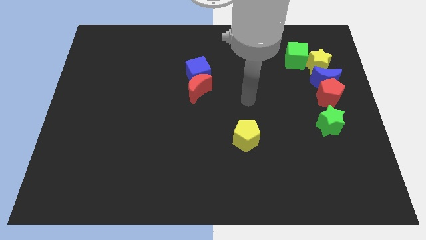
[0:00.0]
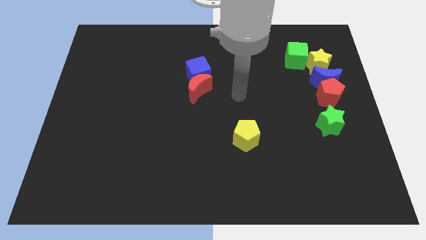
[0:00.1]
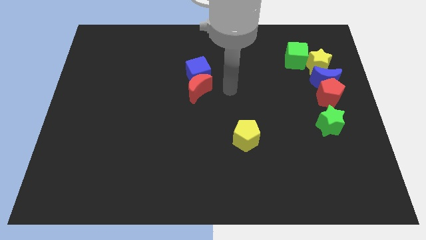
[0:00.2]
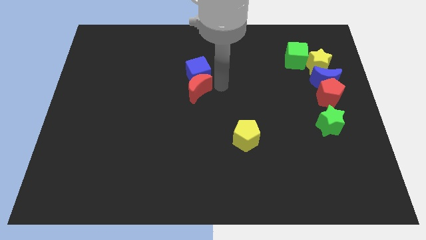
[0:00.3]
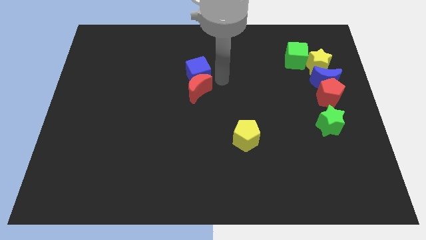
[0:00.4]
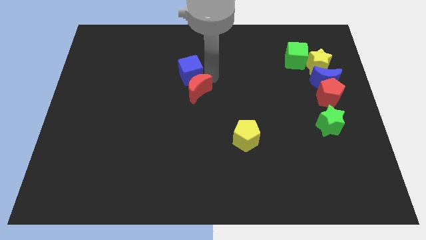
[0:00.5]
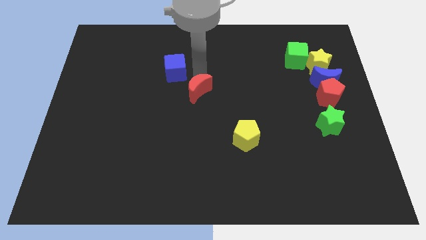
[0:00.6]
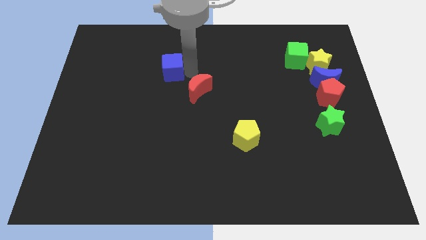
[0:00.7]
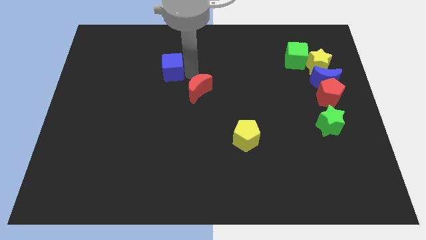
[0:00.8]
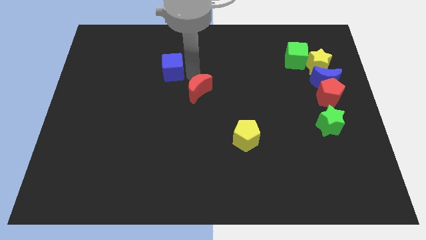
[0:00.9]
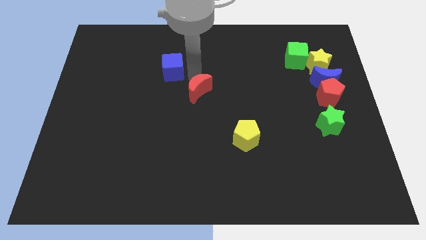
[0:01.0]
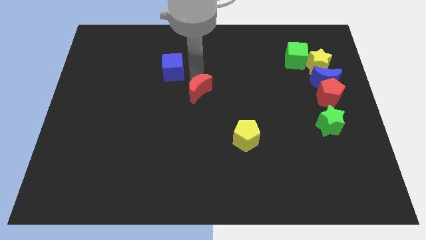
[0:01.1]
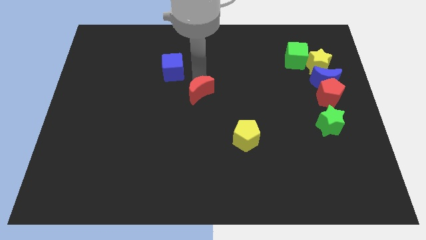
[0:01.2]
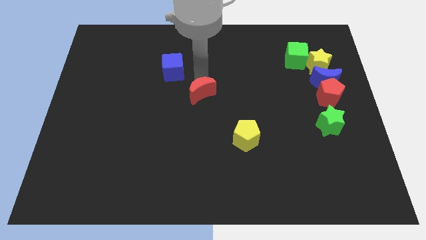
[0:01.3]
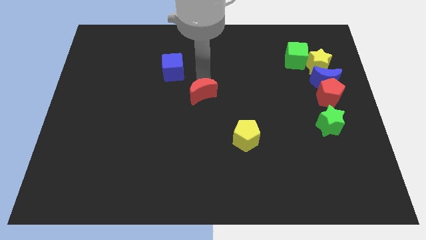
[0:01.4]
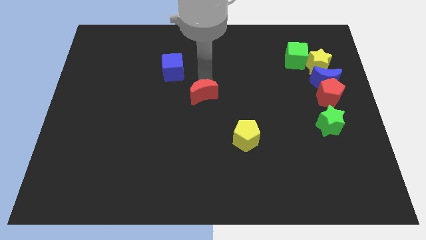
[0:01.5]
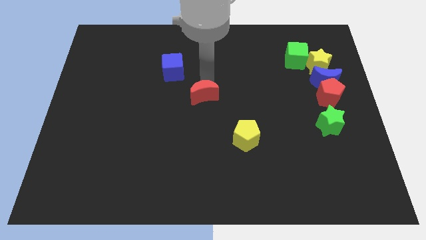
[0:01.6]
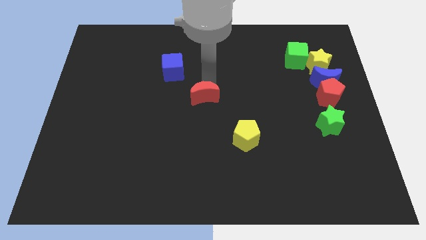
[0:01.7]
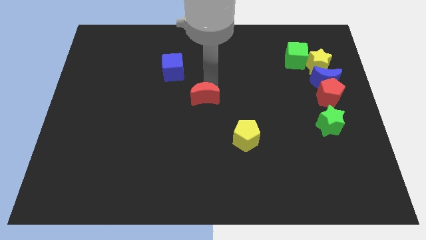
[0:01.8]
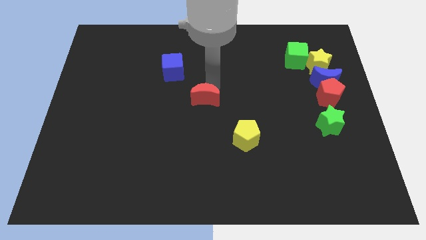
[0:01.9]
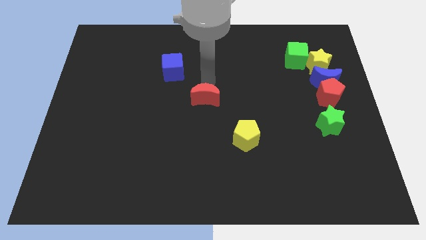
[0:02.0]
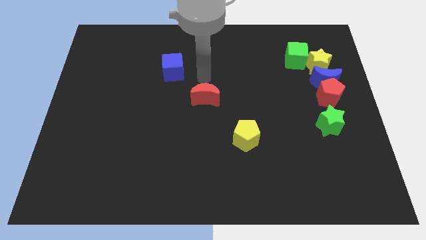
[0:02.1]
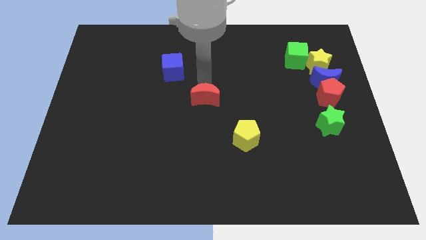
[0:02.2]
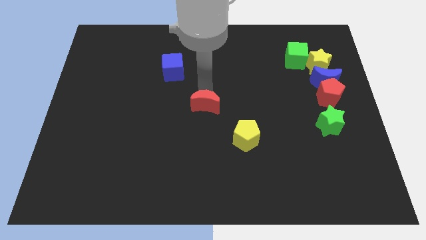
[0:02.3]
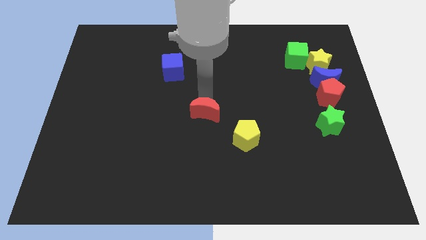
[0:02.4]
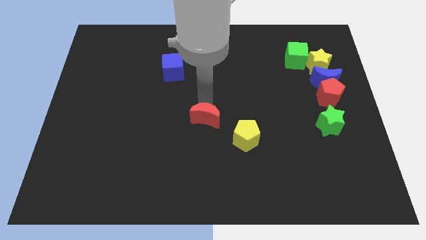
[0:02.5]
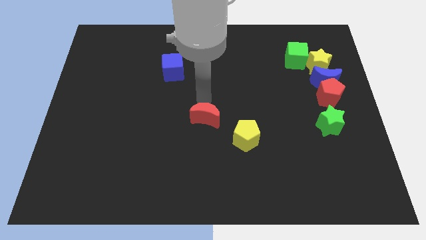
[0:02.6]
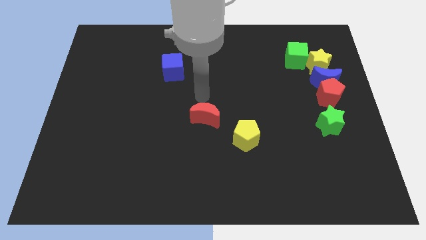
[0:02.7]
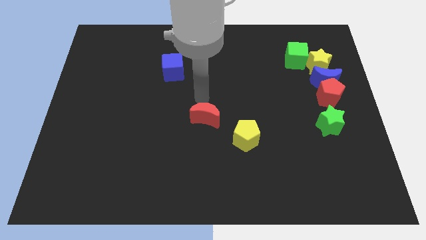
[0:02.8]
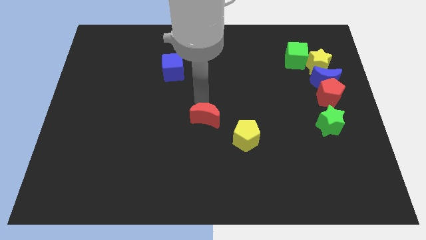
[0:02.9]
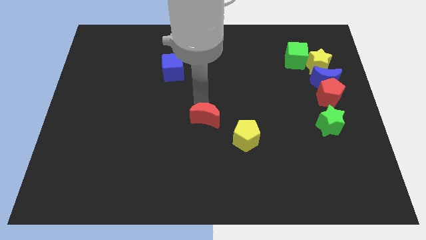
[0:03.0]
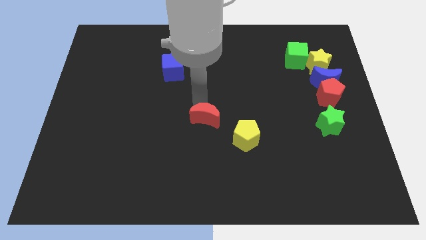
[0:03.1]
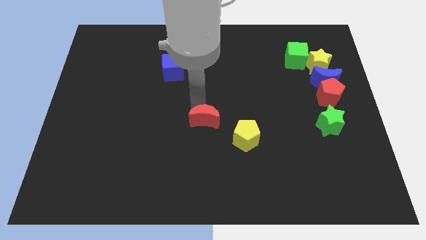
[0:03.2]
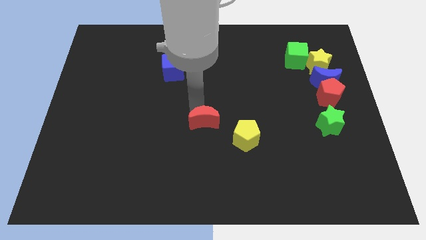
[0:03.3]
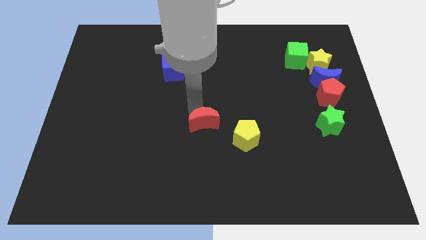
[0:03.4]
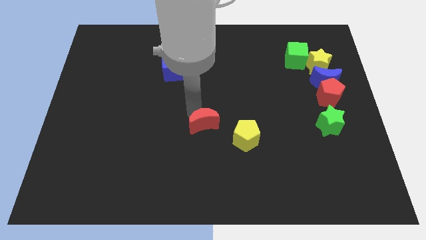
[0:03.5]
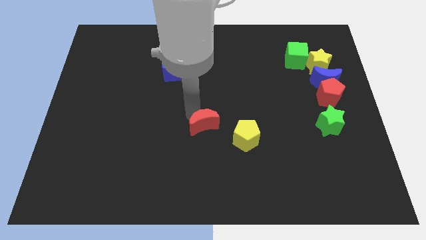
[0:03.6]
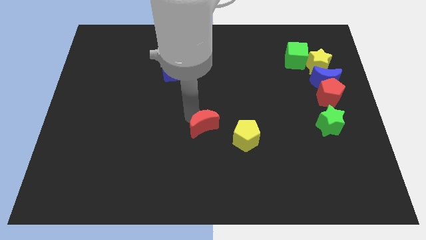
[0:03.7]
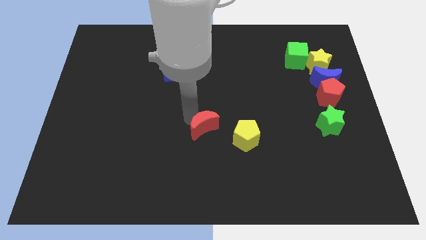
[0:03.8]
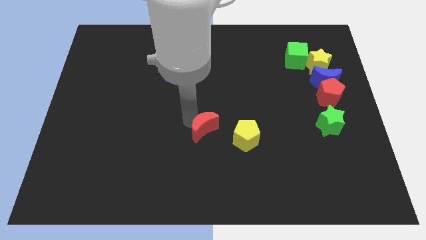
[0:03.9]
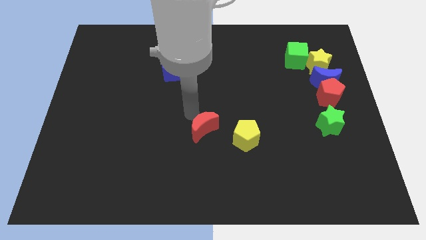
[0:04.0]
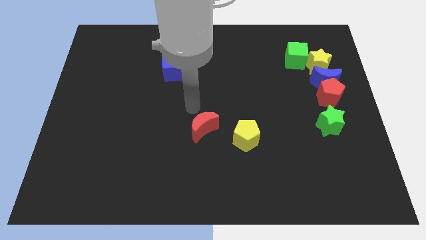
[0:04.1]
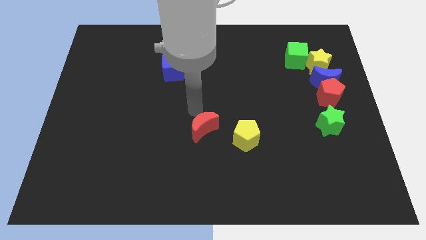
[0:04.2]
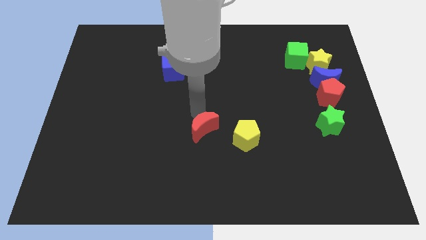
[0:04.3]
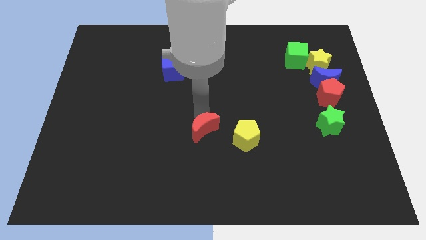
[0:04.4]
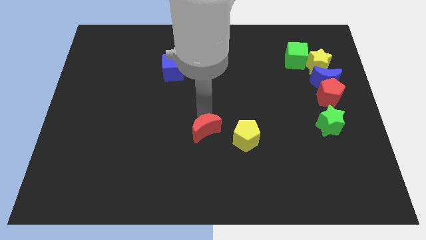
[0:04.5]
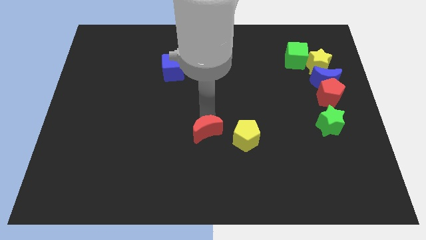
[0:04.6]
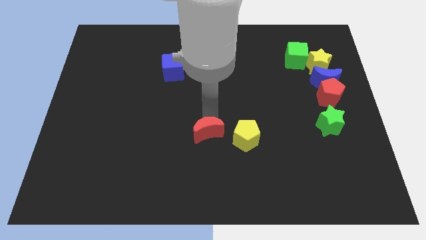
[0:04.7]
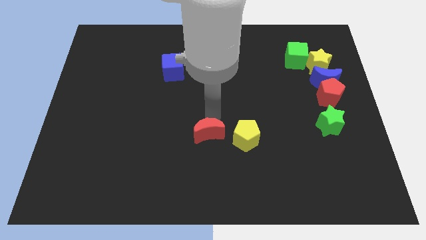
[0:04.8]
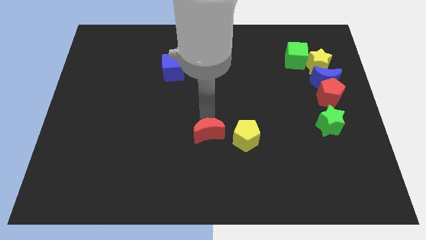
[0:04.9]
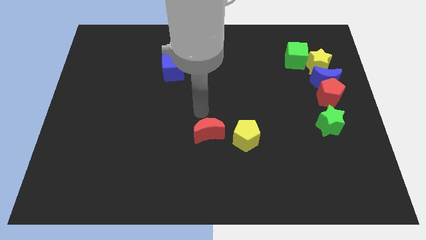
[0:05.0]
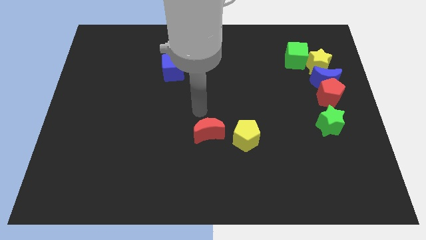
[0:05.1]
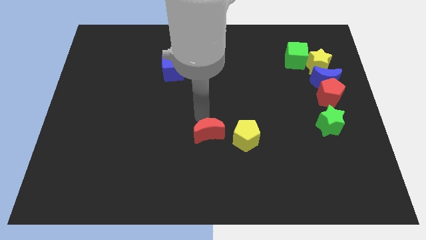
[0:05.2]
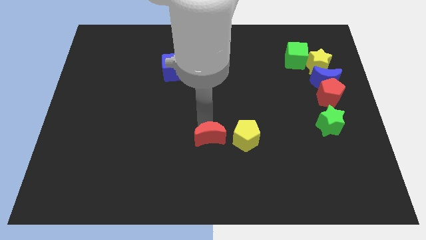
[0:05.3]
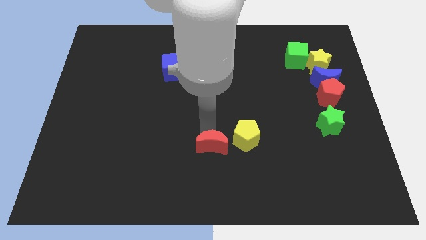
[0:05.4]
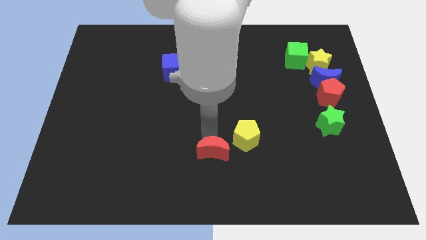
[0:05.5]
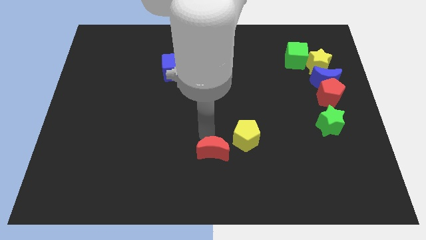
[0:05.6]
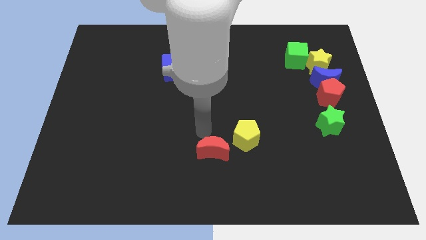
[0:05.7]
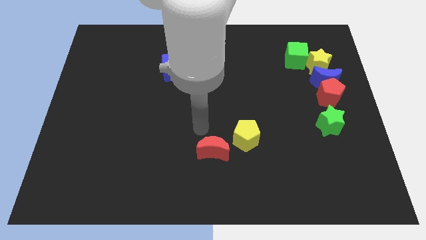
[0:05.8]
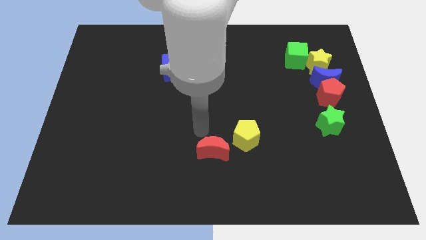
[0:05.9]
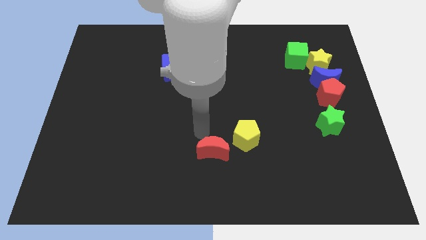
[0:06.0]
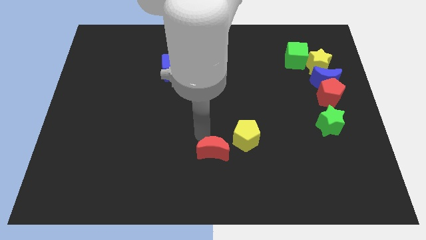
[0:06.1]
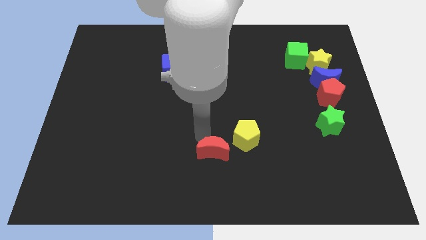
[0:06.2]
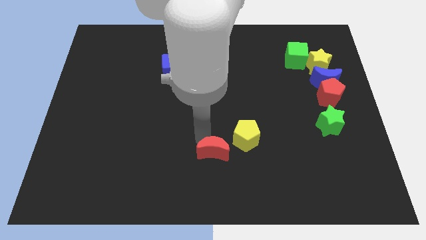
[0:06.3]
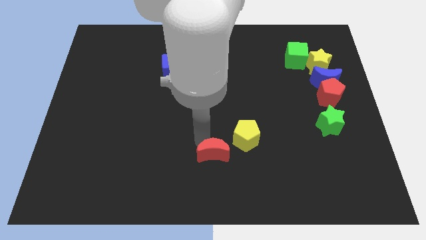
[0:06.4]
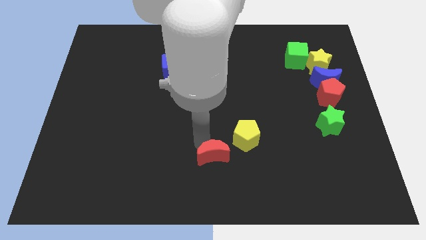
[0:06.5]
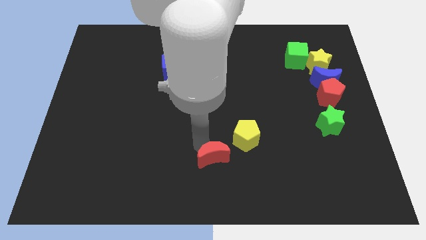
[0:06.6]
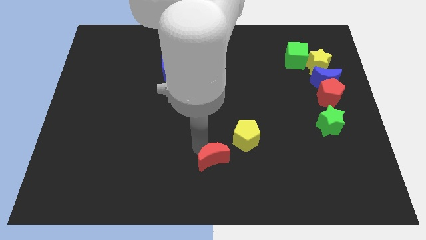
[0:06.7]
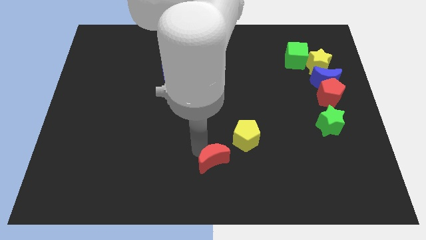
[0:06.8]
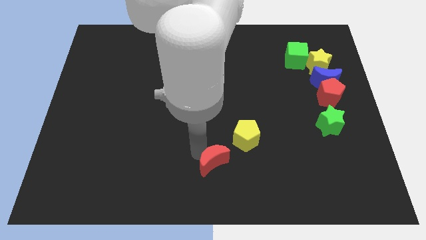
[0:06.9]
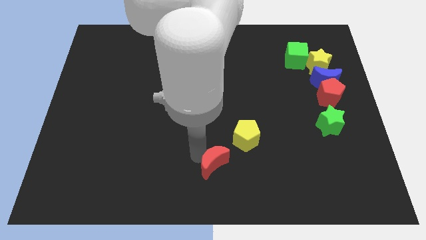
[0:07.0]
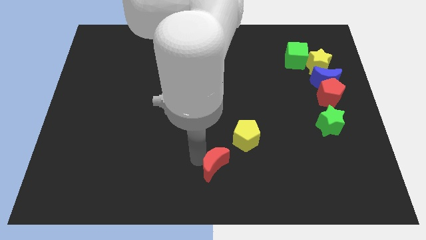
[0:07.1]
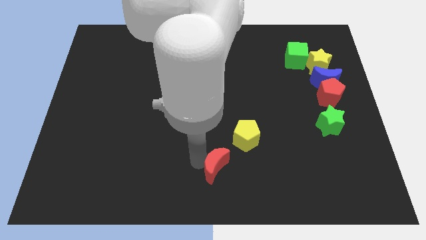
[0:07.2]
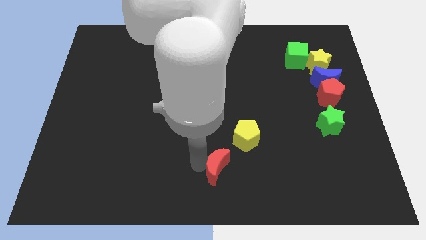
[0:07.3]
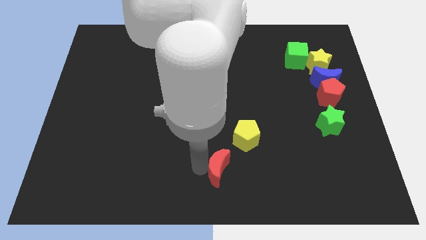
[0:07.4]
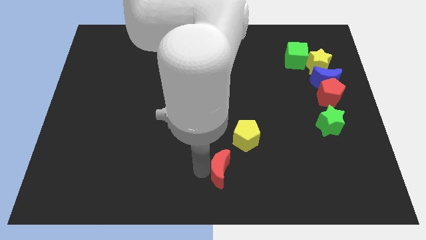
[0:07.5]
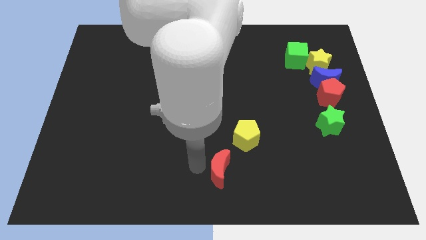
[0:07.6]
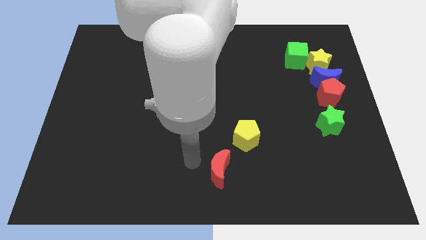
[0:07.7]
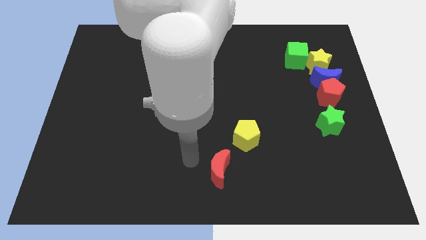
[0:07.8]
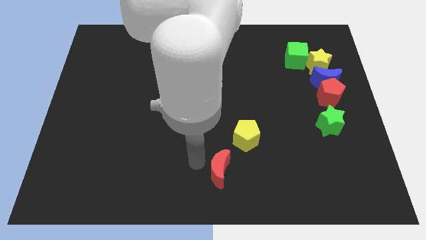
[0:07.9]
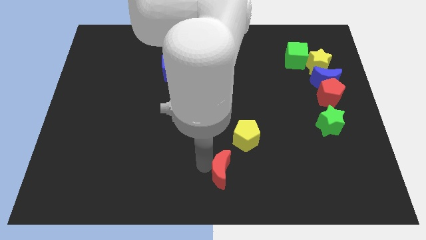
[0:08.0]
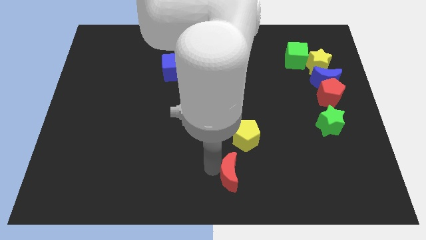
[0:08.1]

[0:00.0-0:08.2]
push the red moon to the bottom side of the yellow pentagon
